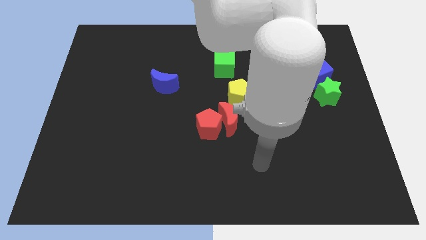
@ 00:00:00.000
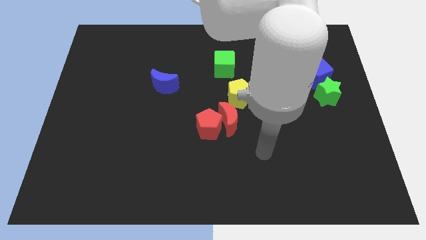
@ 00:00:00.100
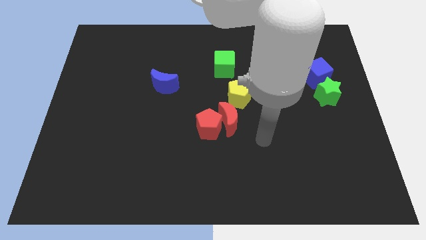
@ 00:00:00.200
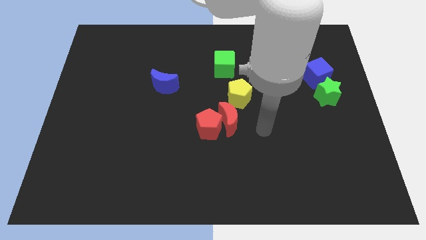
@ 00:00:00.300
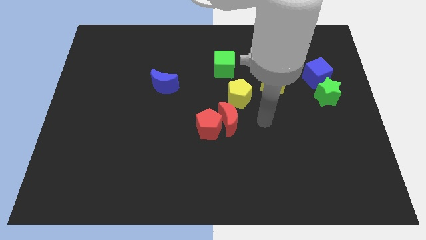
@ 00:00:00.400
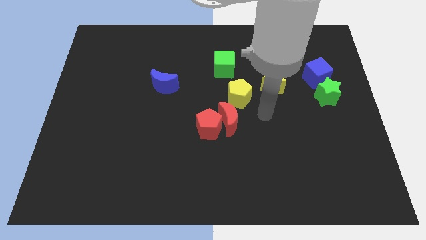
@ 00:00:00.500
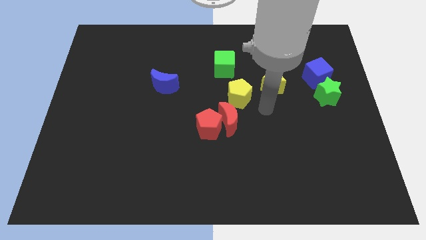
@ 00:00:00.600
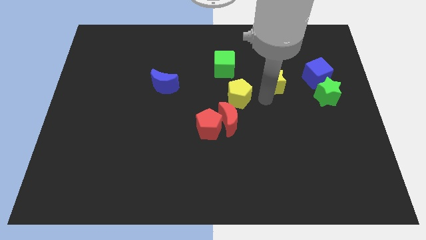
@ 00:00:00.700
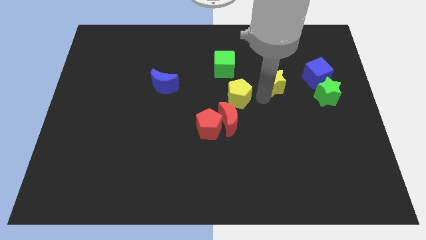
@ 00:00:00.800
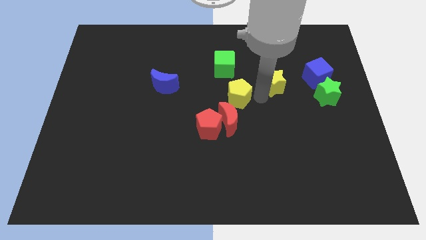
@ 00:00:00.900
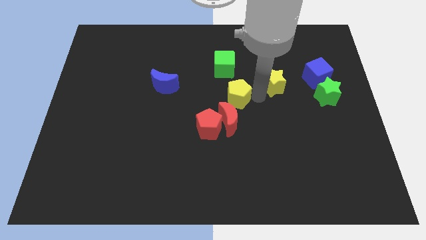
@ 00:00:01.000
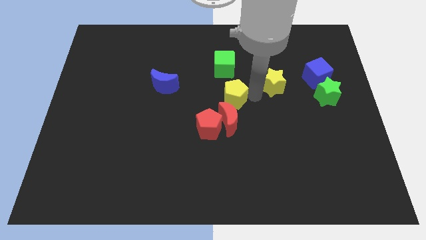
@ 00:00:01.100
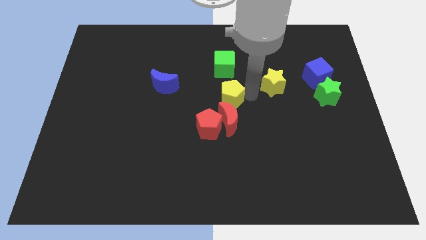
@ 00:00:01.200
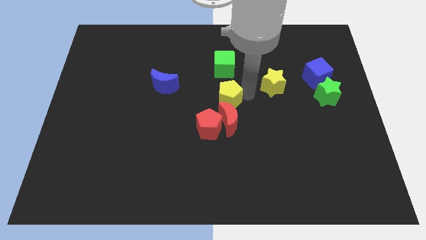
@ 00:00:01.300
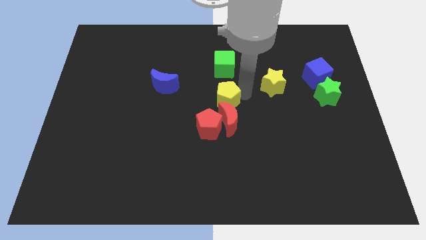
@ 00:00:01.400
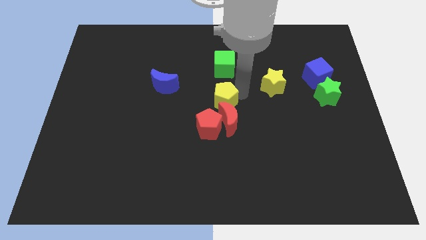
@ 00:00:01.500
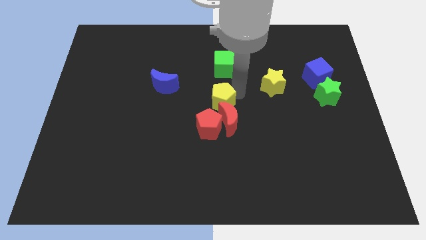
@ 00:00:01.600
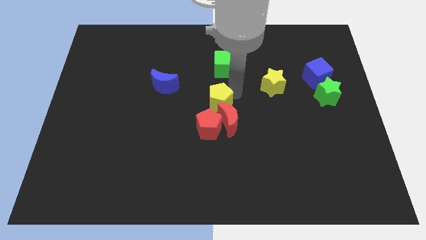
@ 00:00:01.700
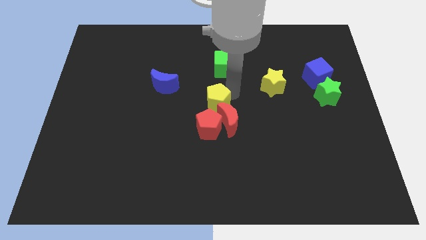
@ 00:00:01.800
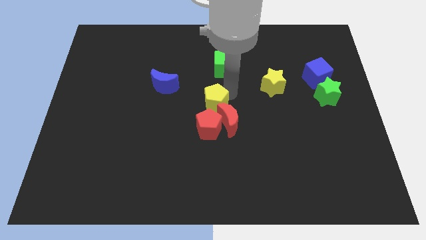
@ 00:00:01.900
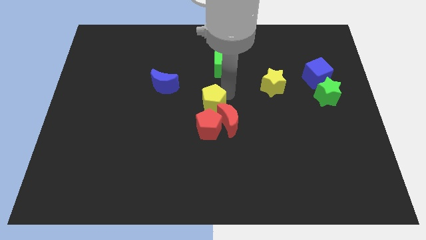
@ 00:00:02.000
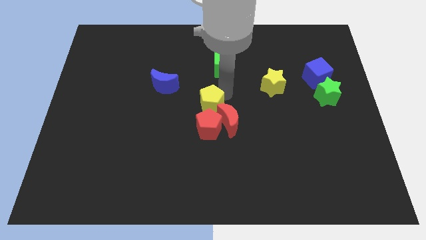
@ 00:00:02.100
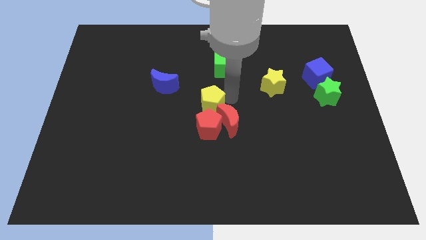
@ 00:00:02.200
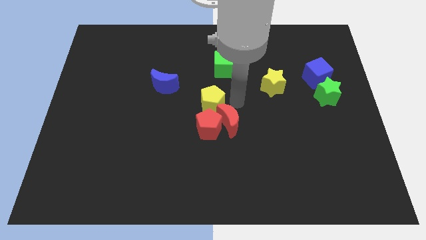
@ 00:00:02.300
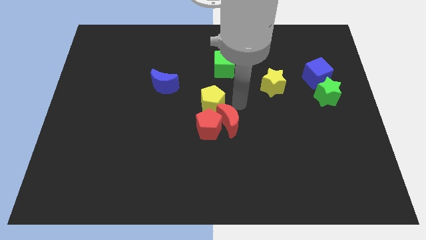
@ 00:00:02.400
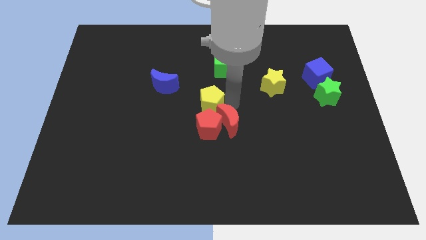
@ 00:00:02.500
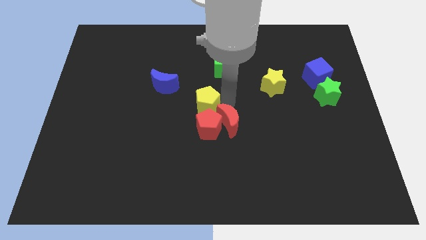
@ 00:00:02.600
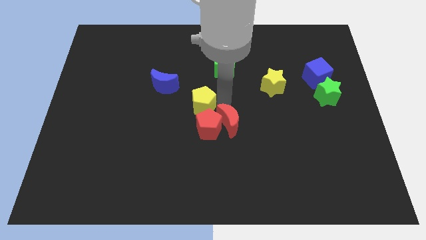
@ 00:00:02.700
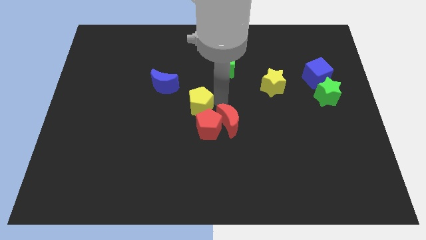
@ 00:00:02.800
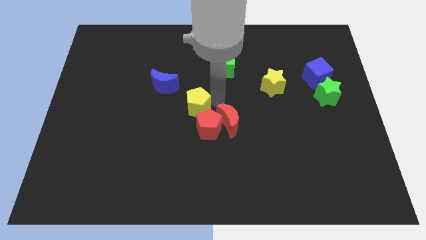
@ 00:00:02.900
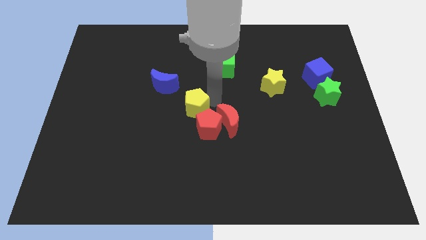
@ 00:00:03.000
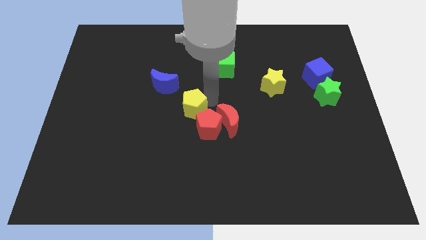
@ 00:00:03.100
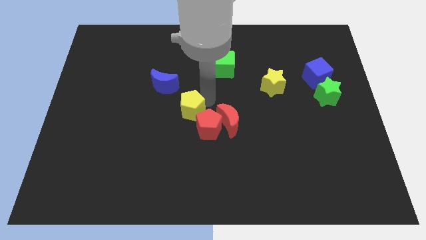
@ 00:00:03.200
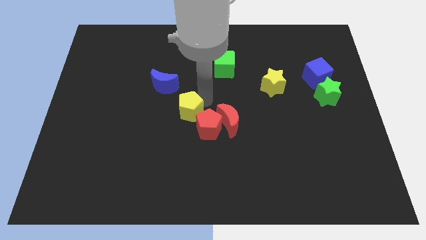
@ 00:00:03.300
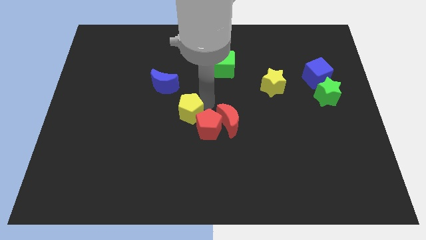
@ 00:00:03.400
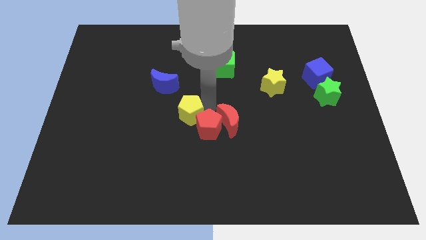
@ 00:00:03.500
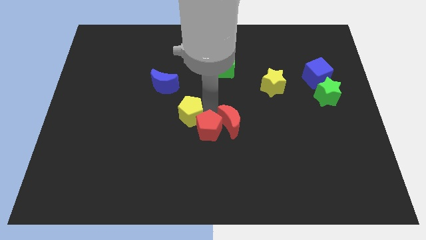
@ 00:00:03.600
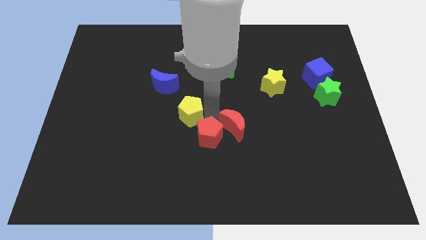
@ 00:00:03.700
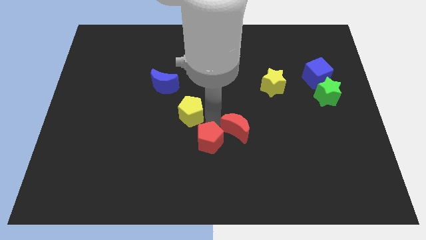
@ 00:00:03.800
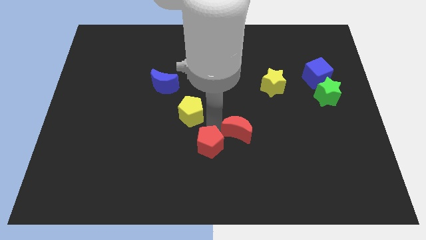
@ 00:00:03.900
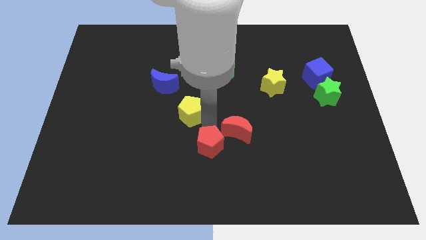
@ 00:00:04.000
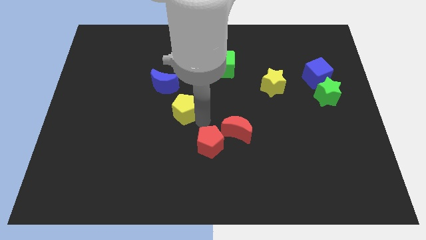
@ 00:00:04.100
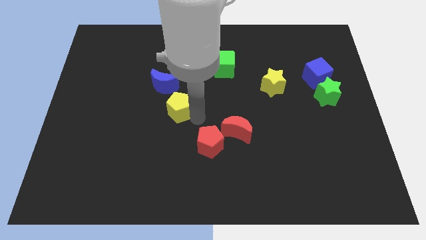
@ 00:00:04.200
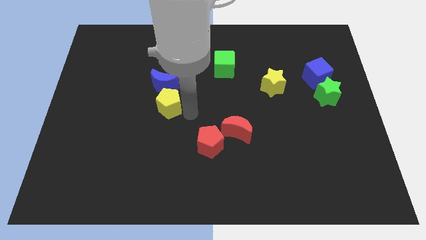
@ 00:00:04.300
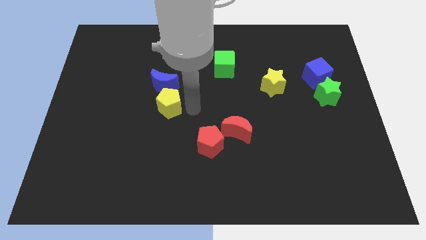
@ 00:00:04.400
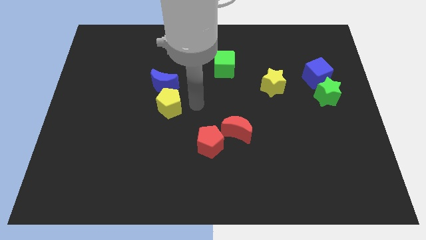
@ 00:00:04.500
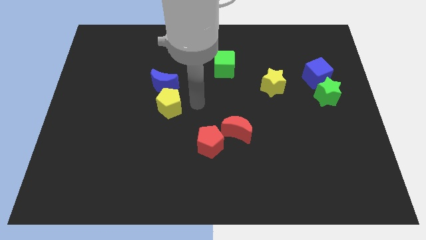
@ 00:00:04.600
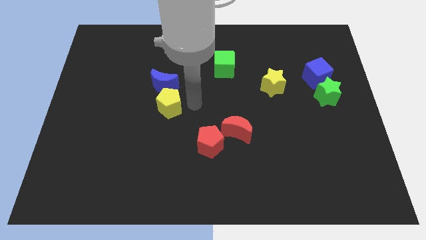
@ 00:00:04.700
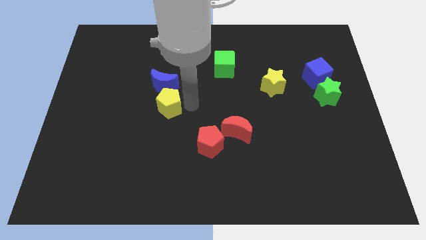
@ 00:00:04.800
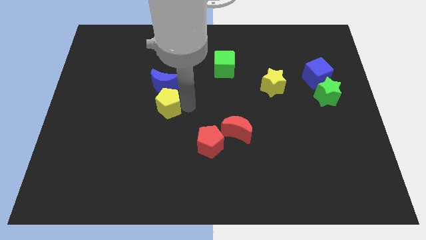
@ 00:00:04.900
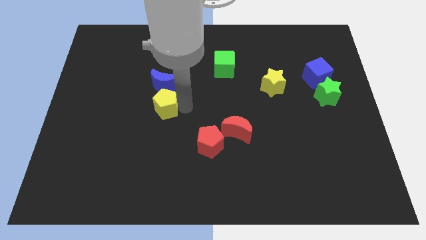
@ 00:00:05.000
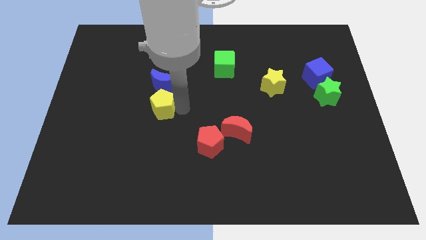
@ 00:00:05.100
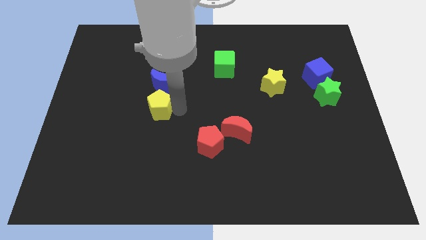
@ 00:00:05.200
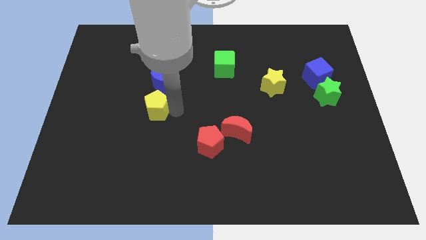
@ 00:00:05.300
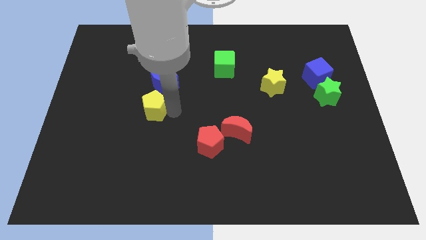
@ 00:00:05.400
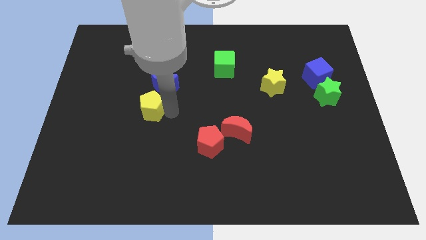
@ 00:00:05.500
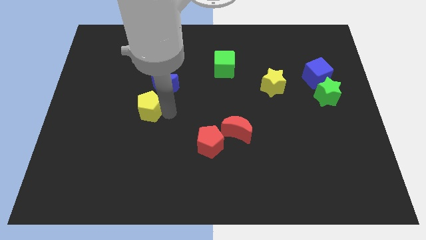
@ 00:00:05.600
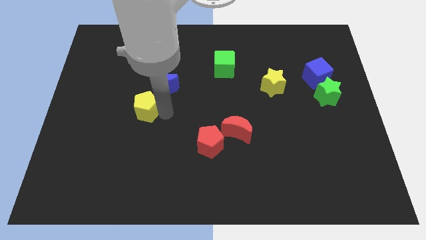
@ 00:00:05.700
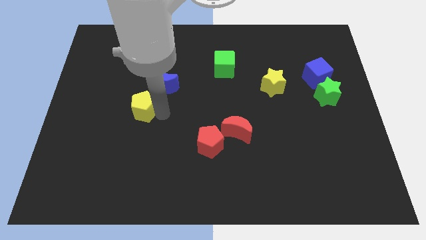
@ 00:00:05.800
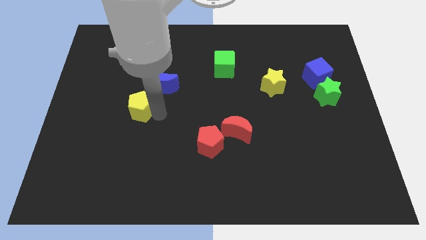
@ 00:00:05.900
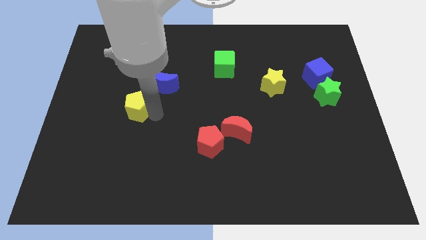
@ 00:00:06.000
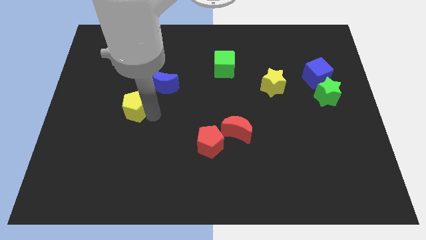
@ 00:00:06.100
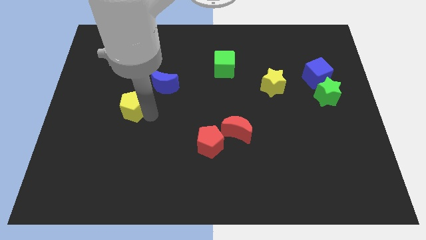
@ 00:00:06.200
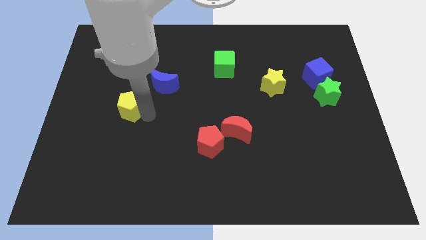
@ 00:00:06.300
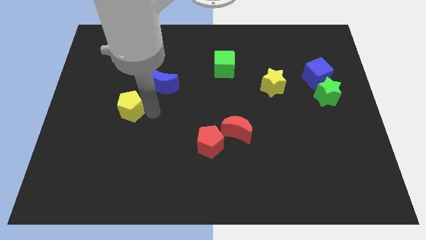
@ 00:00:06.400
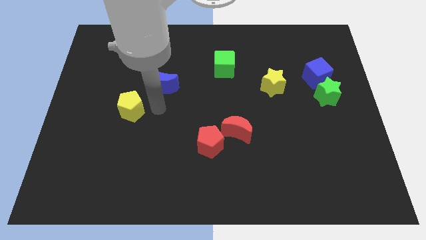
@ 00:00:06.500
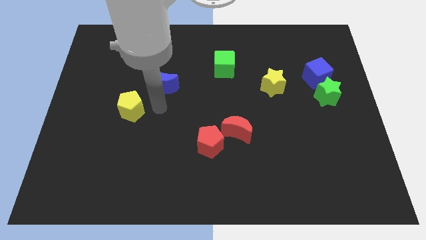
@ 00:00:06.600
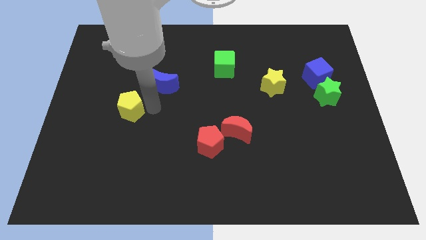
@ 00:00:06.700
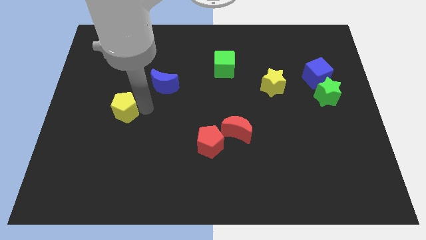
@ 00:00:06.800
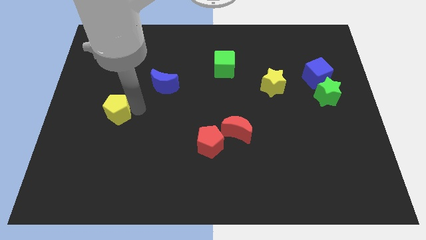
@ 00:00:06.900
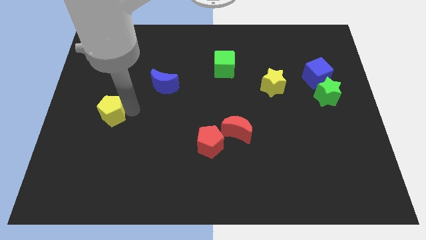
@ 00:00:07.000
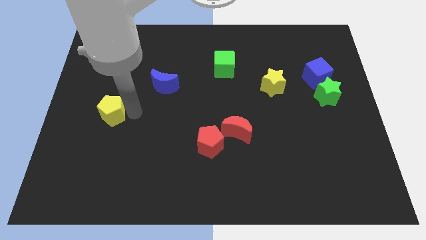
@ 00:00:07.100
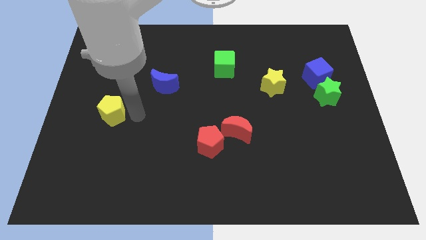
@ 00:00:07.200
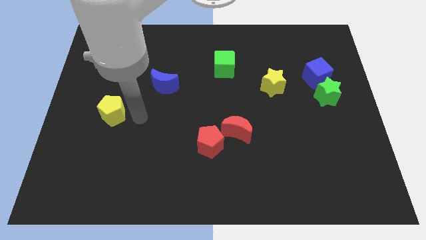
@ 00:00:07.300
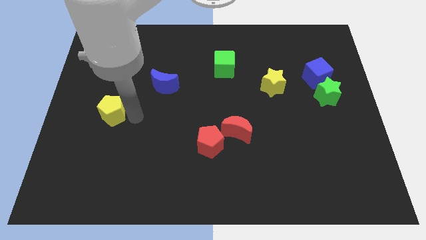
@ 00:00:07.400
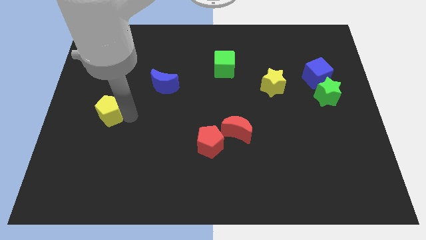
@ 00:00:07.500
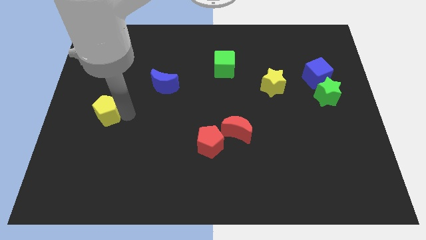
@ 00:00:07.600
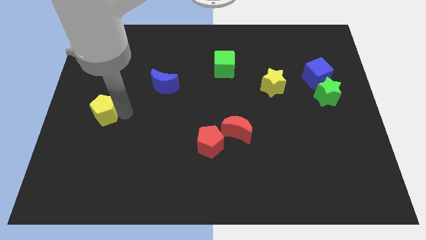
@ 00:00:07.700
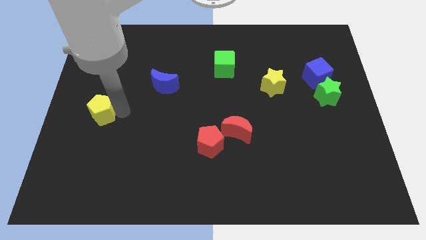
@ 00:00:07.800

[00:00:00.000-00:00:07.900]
move the yellow pentagon to the left side
